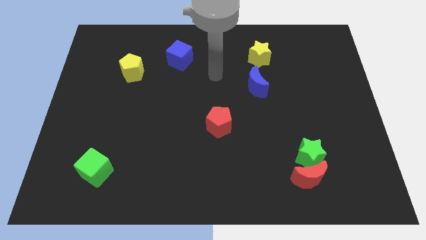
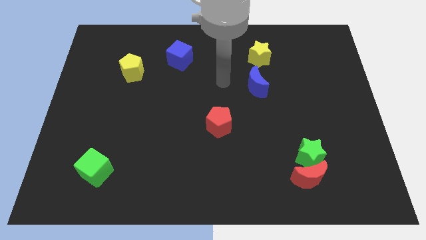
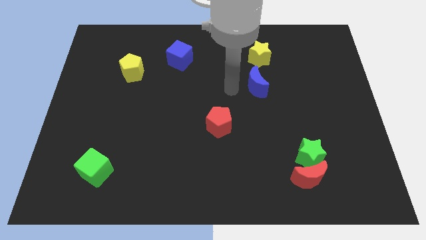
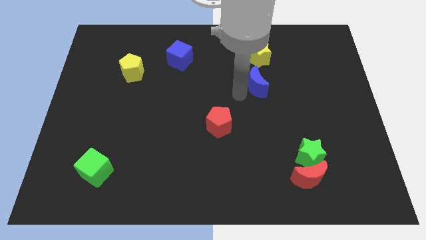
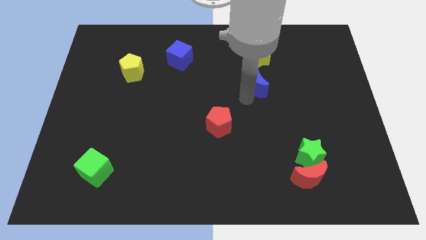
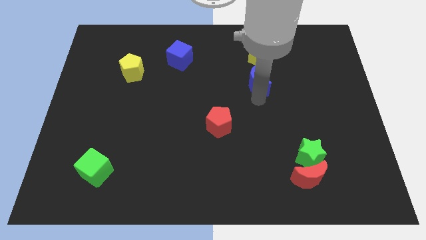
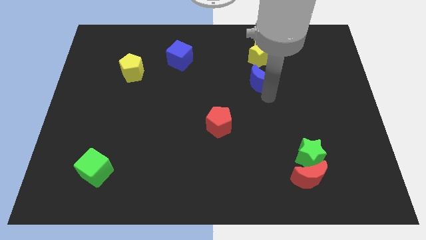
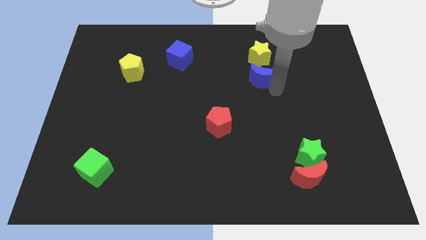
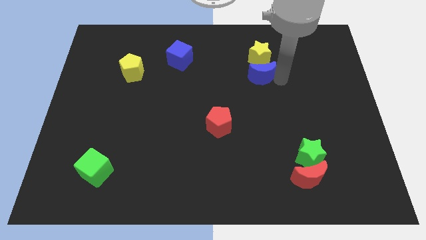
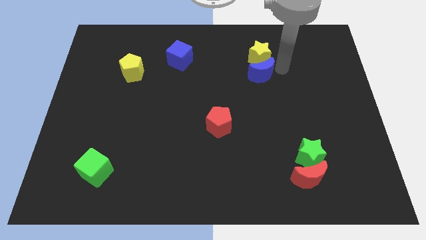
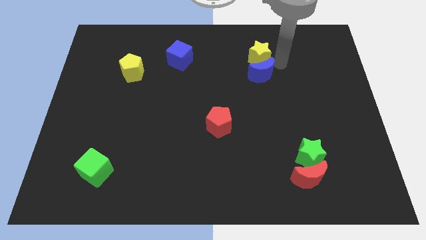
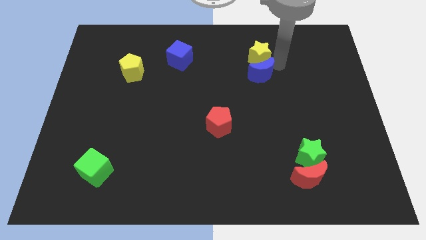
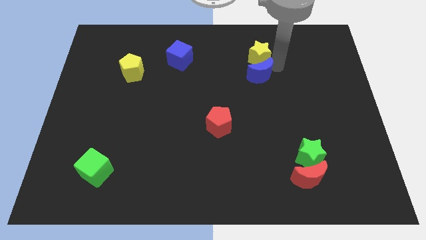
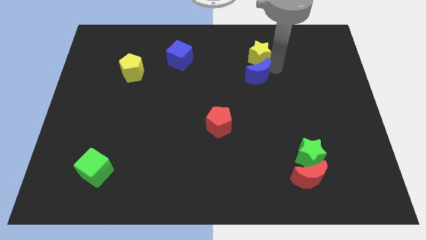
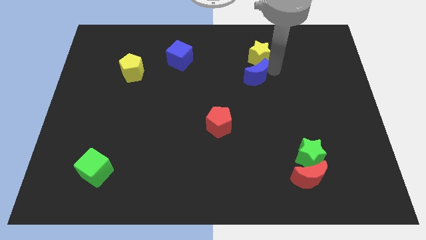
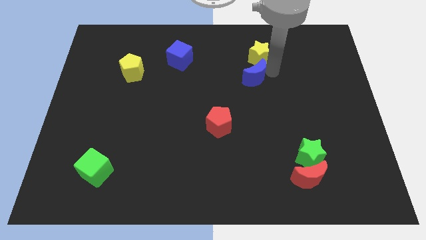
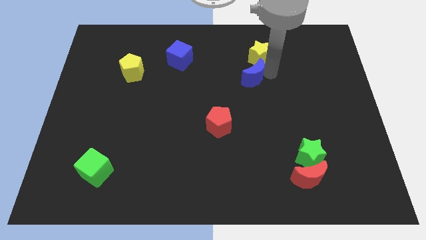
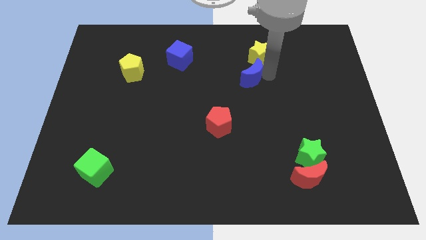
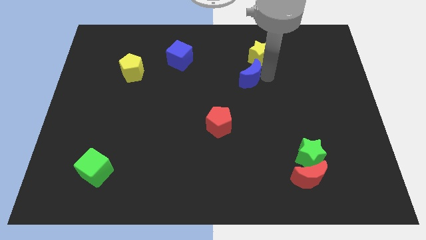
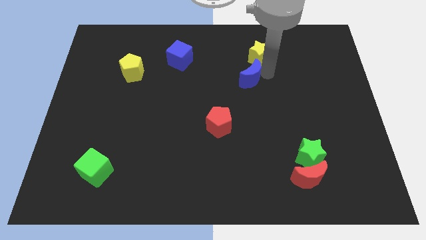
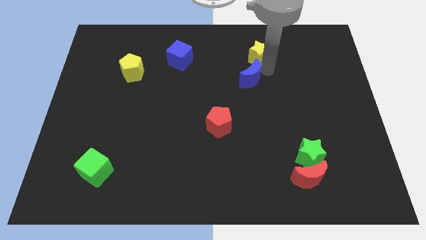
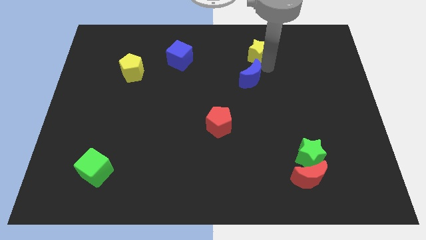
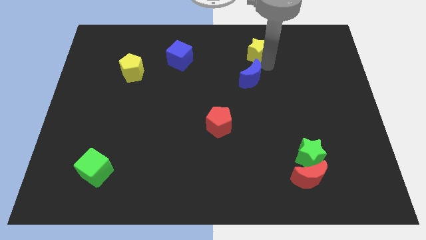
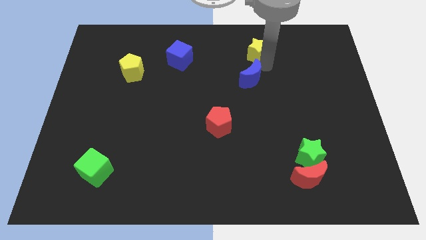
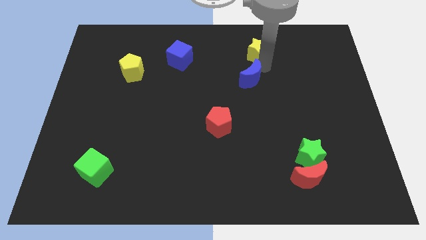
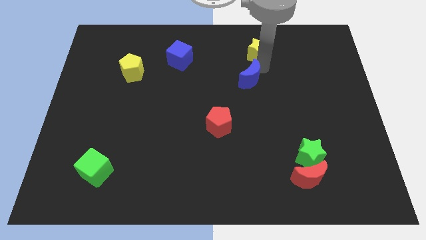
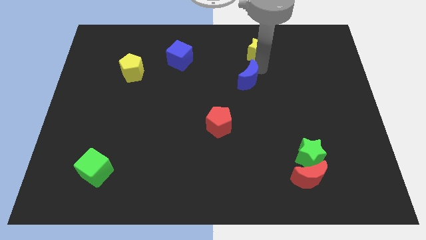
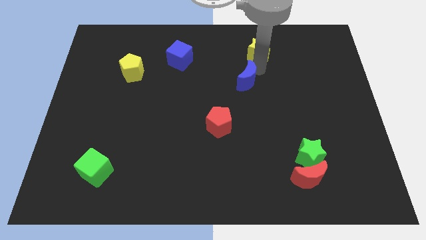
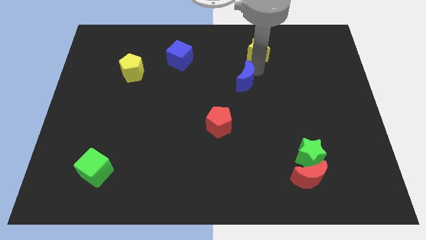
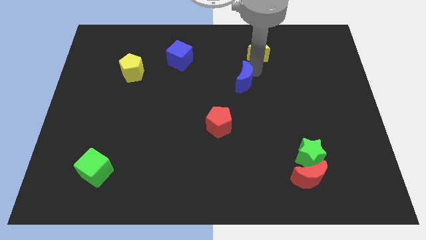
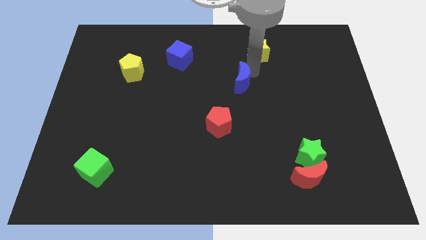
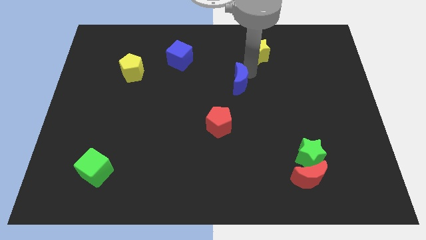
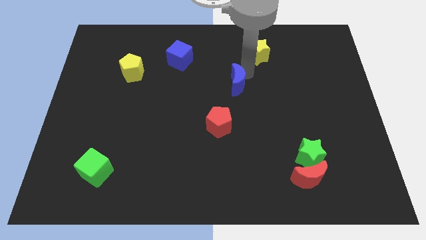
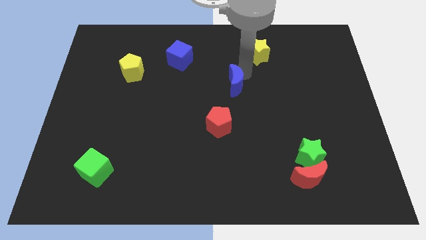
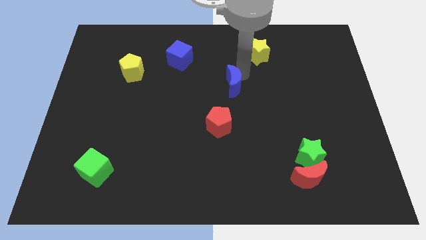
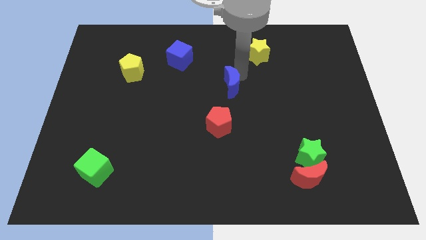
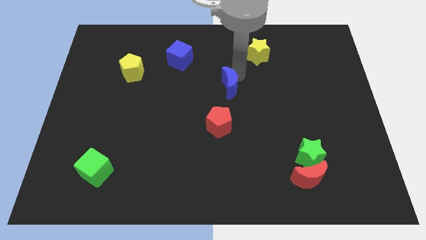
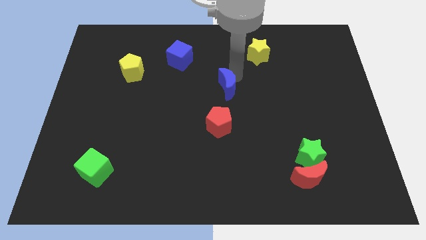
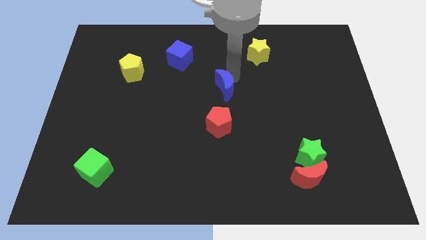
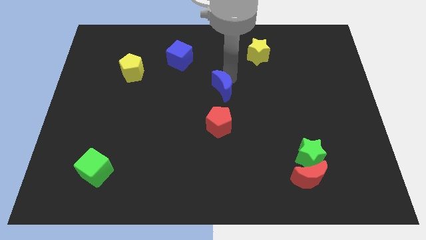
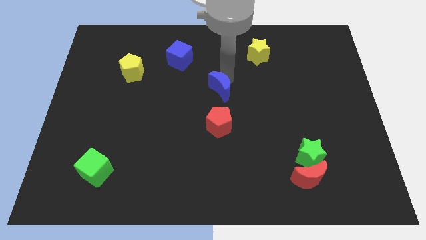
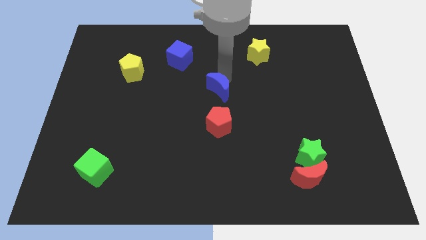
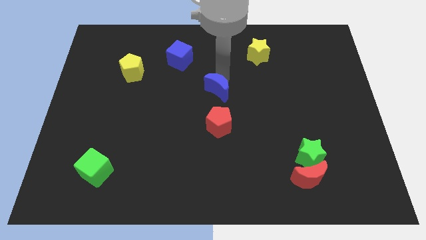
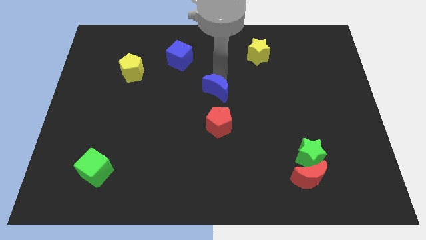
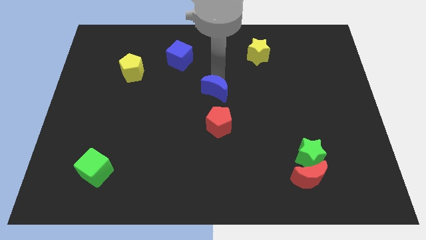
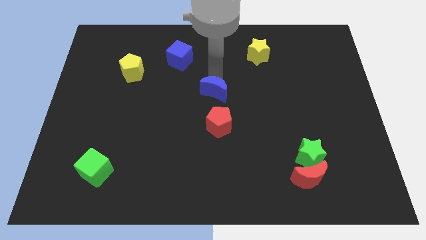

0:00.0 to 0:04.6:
slightly slide the blue moon down and left diagonally

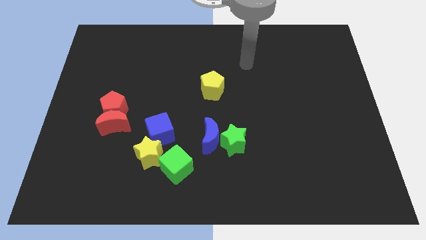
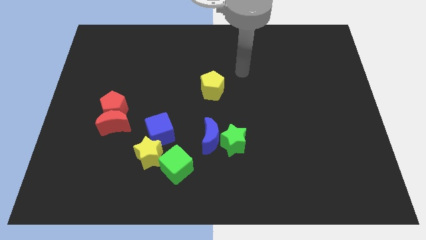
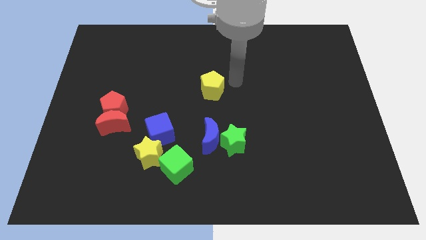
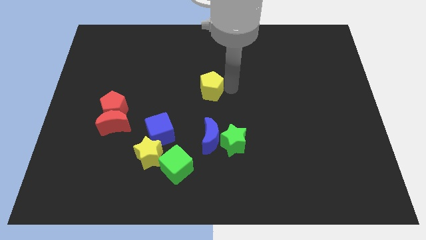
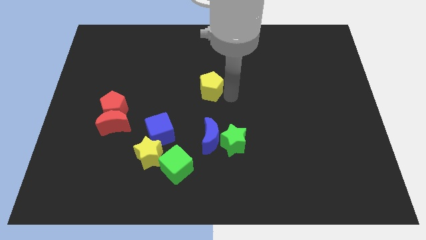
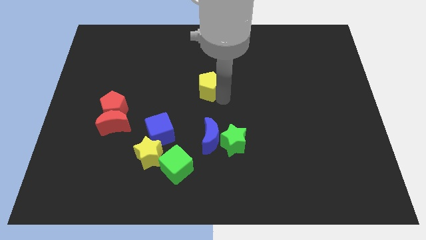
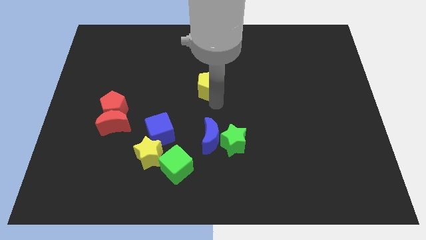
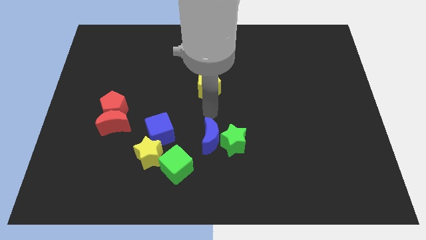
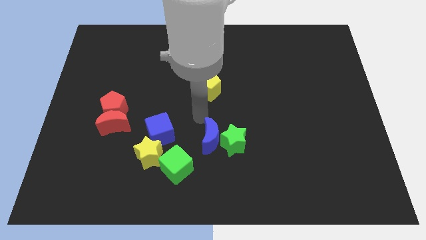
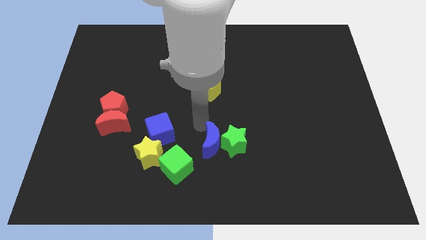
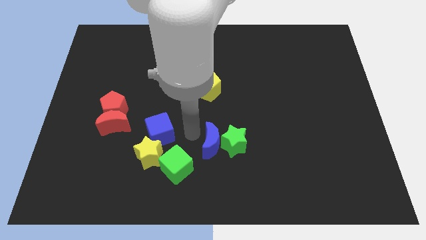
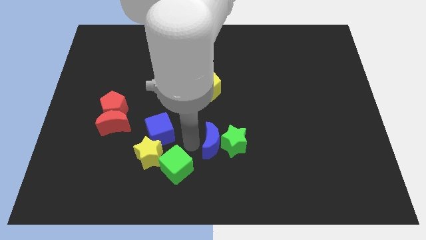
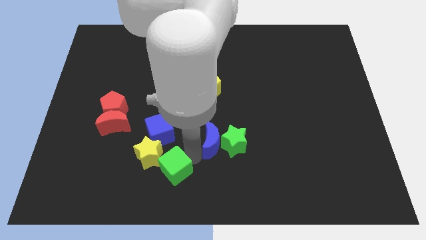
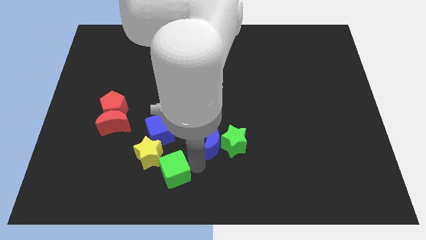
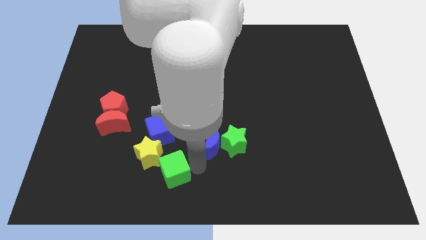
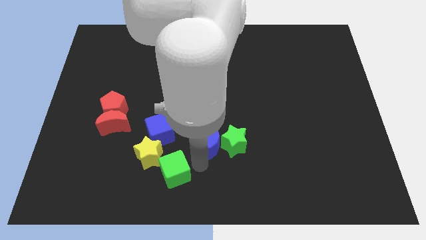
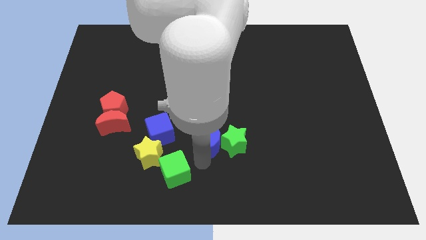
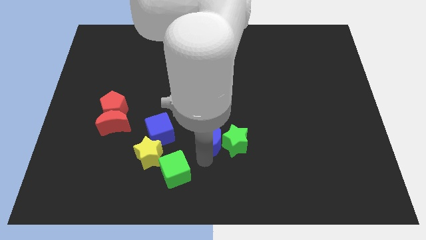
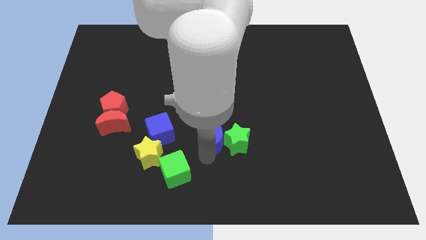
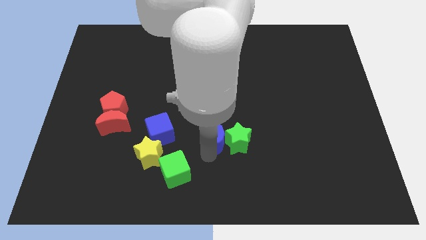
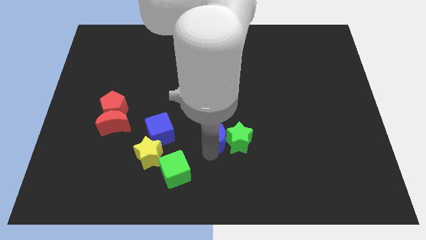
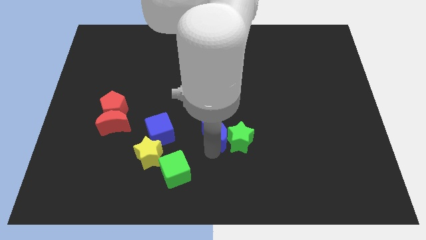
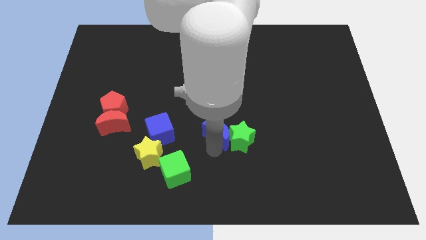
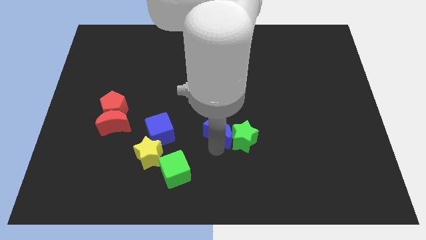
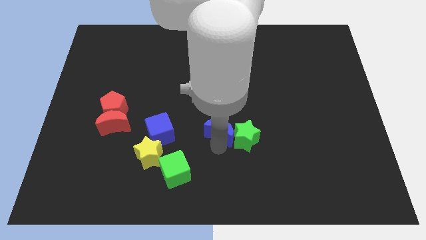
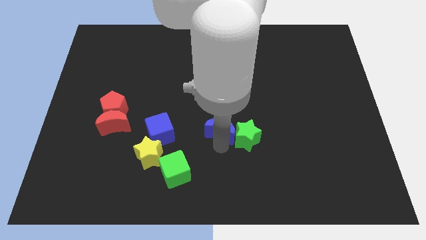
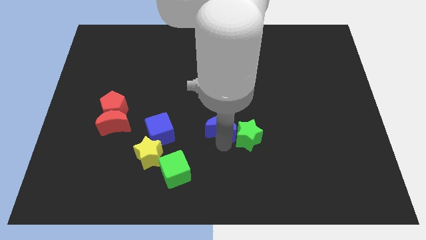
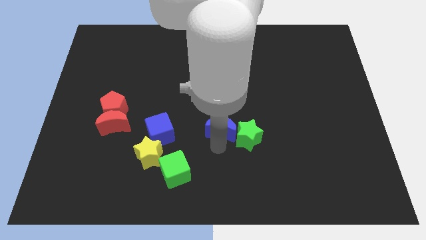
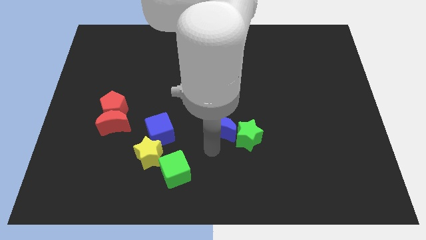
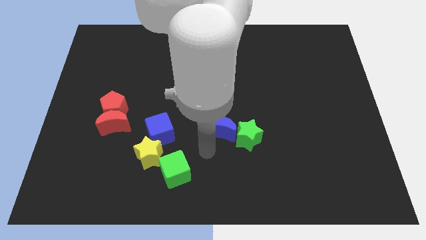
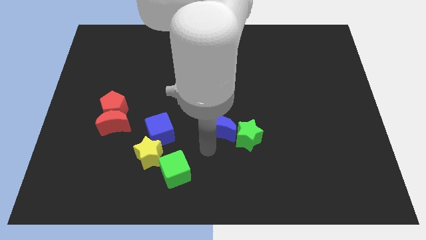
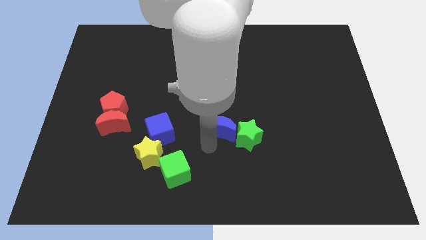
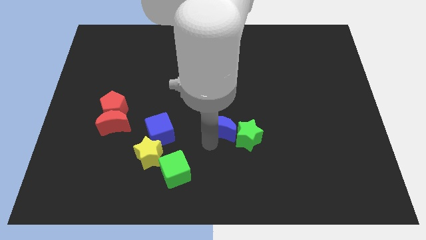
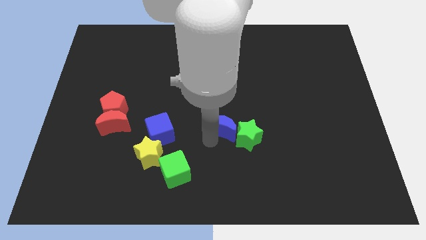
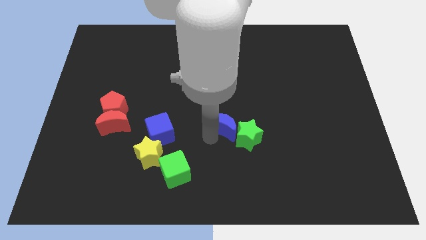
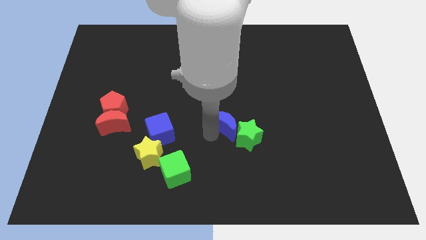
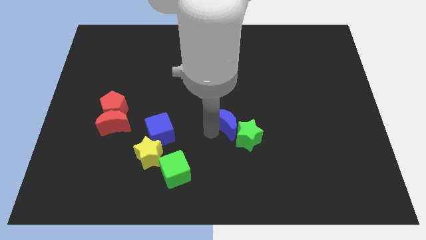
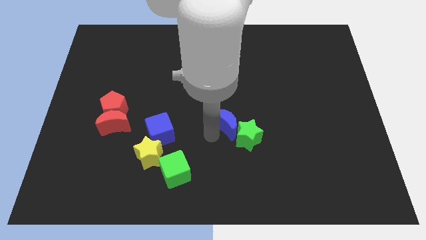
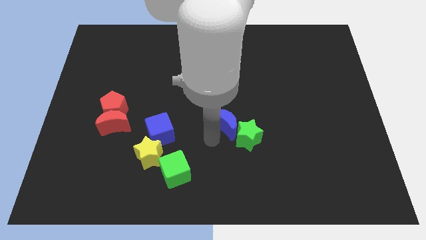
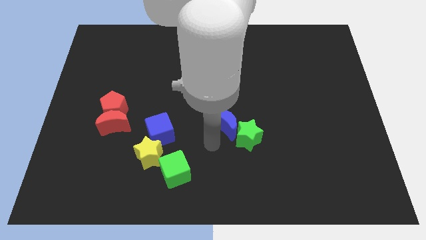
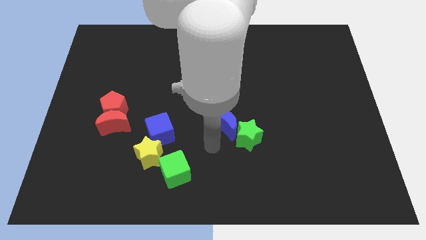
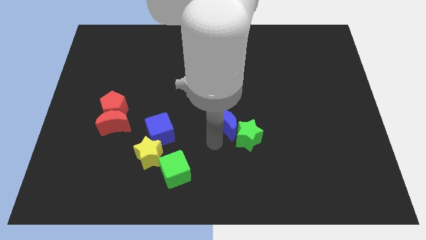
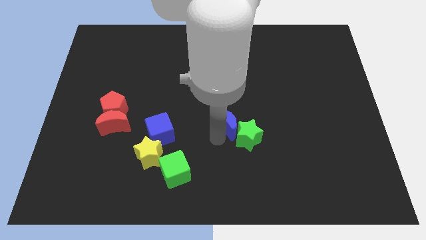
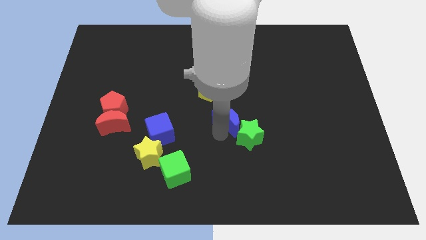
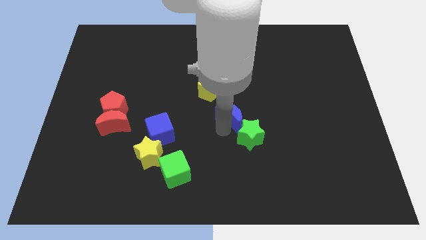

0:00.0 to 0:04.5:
push the blue moon a bit upwards and right
